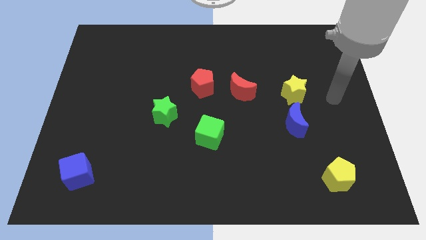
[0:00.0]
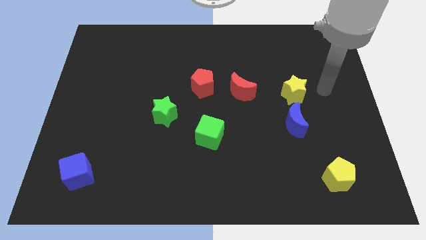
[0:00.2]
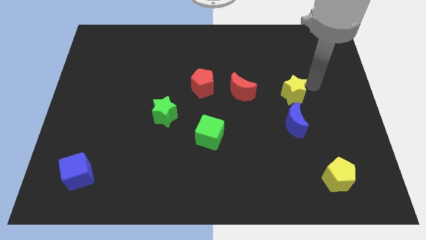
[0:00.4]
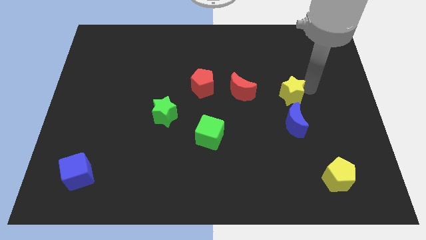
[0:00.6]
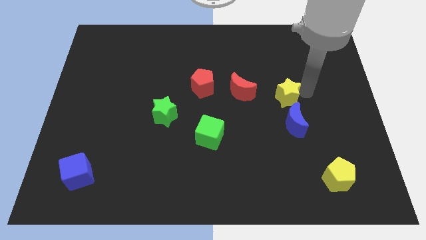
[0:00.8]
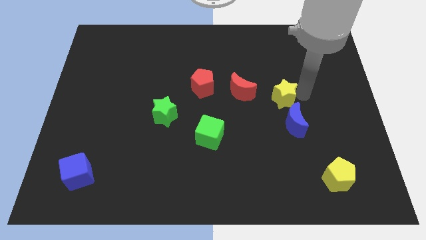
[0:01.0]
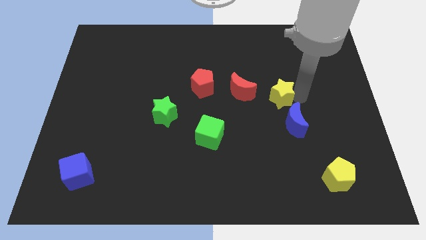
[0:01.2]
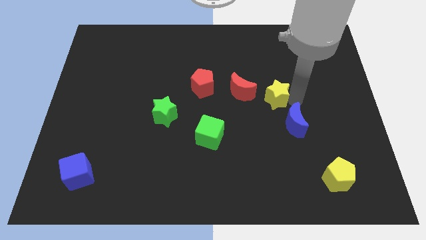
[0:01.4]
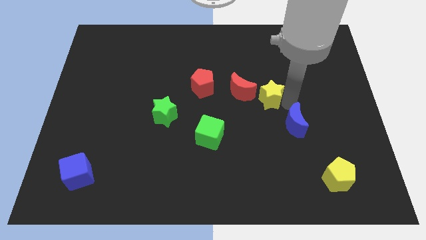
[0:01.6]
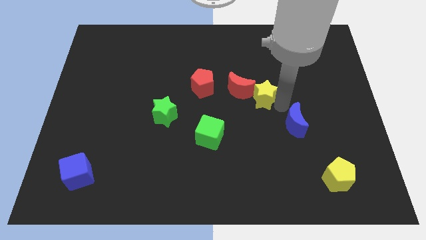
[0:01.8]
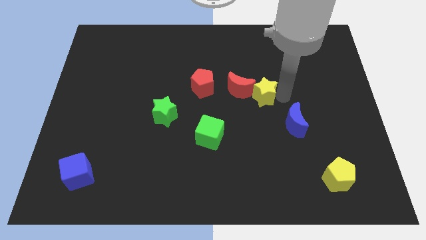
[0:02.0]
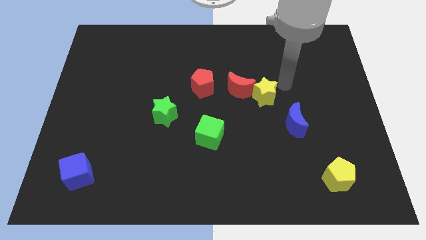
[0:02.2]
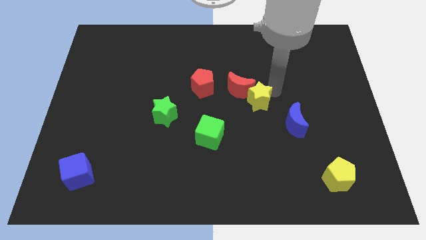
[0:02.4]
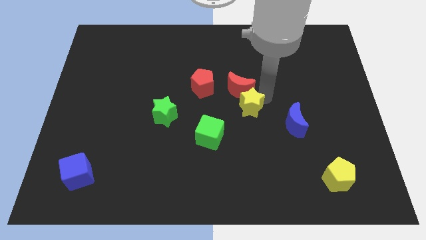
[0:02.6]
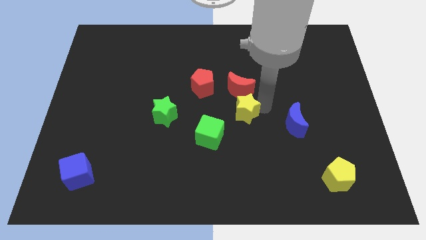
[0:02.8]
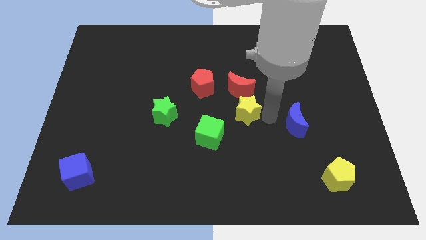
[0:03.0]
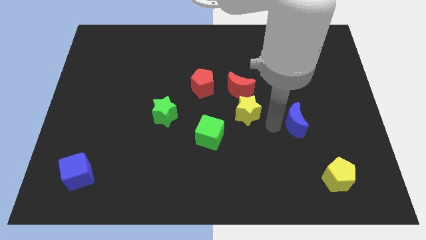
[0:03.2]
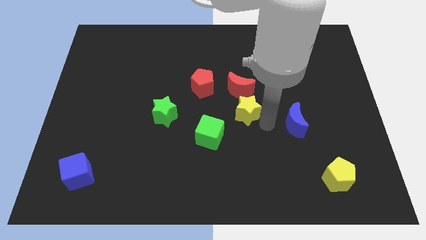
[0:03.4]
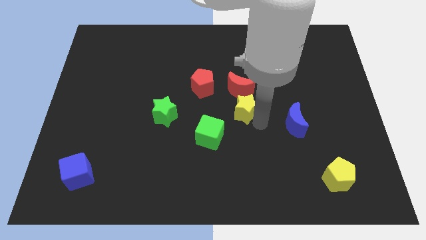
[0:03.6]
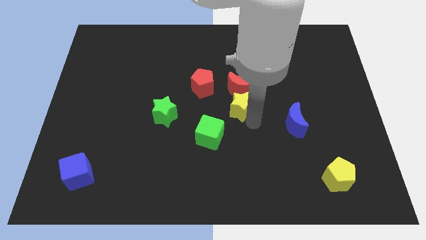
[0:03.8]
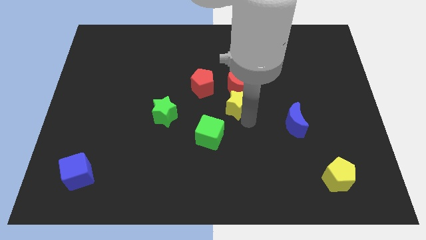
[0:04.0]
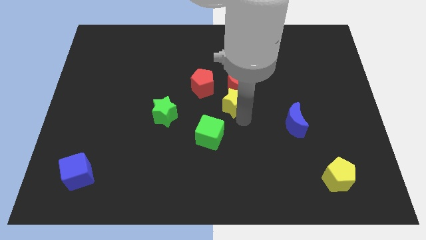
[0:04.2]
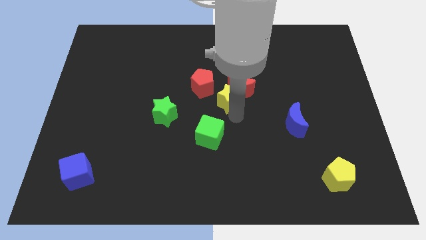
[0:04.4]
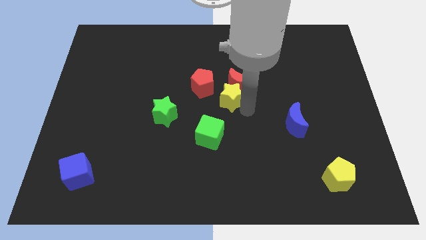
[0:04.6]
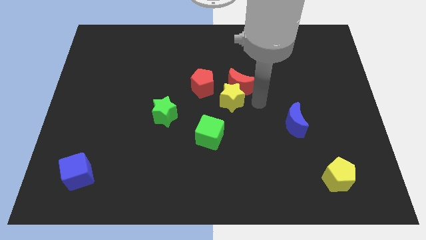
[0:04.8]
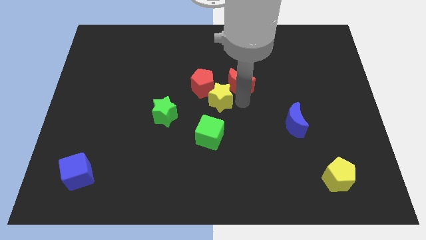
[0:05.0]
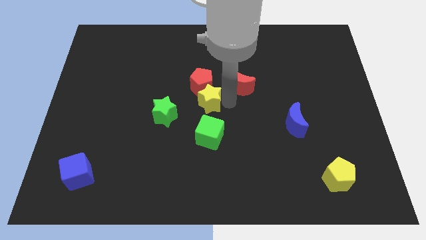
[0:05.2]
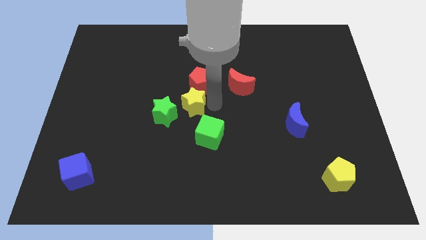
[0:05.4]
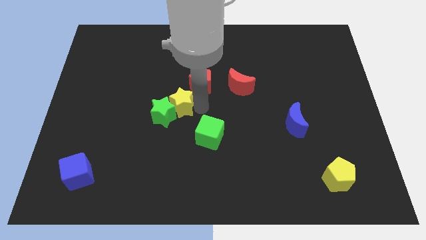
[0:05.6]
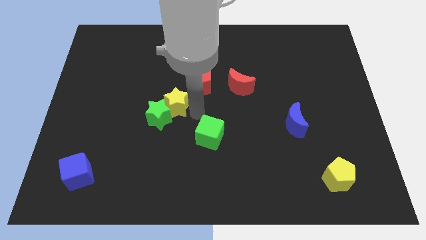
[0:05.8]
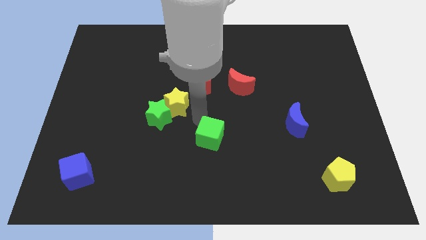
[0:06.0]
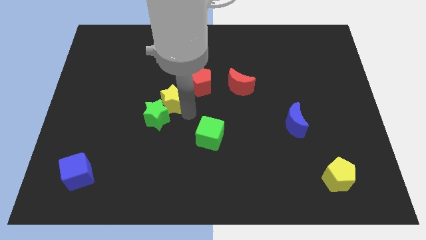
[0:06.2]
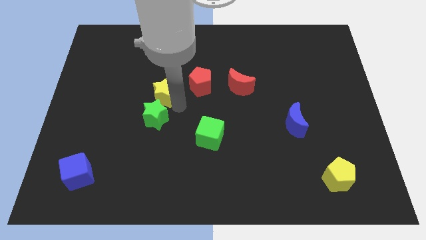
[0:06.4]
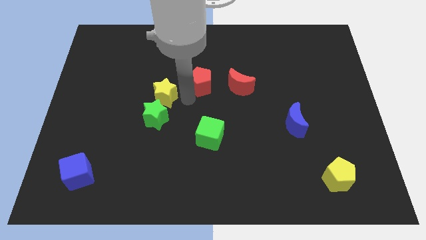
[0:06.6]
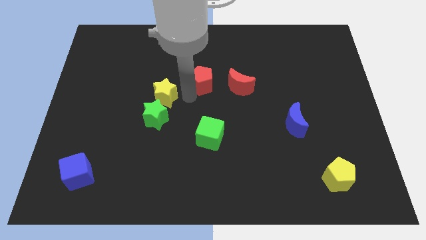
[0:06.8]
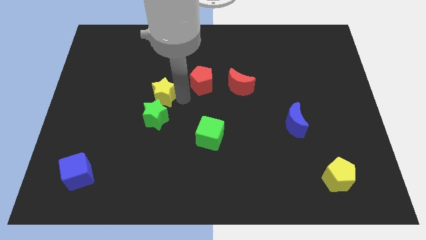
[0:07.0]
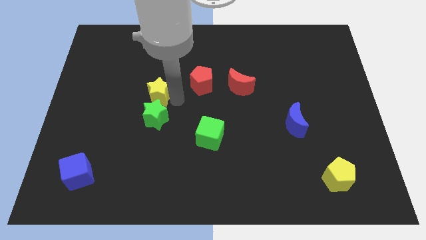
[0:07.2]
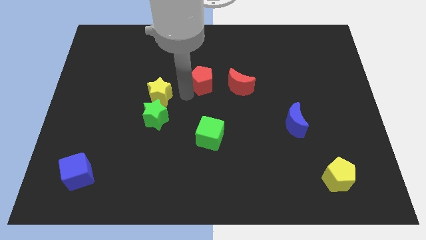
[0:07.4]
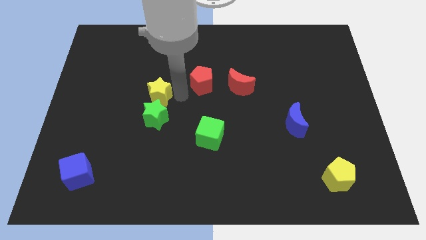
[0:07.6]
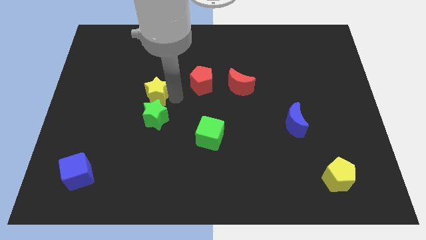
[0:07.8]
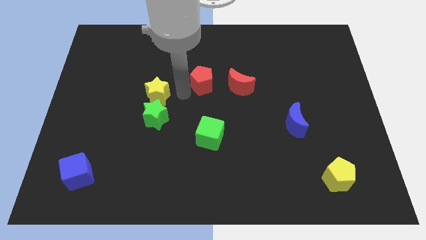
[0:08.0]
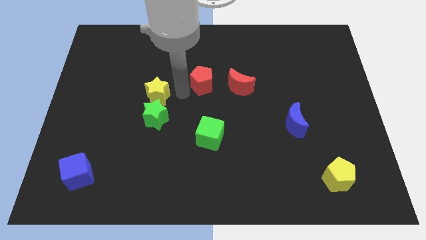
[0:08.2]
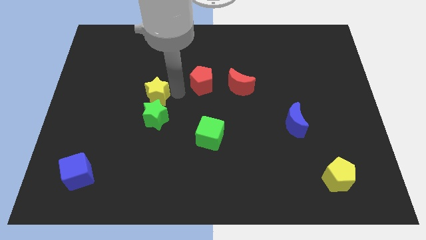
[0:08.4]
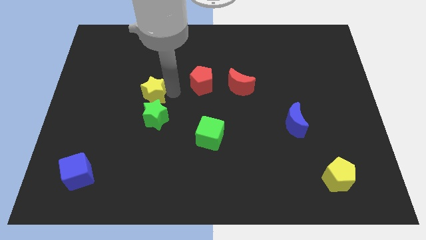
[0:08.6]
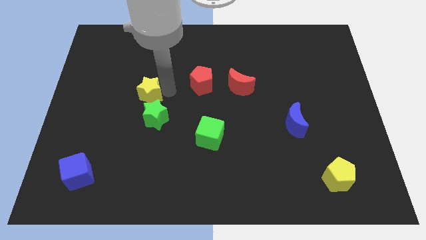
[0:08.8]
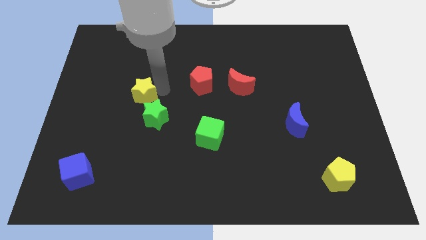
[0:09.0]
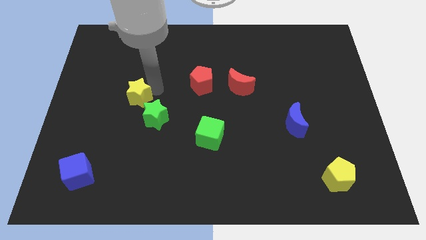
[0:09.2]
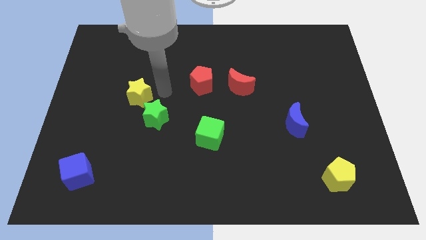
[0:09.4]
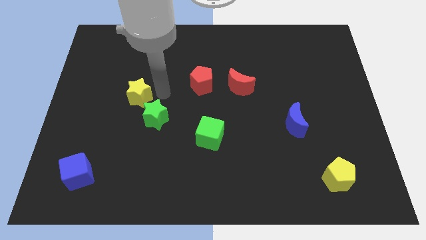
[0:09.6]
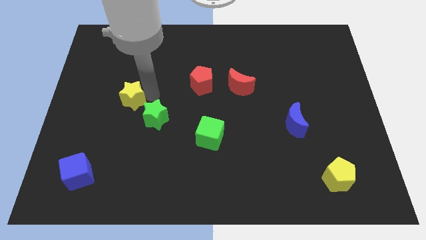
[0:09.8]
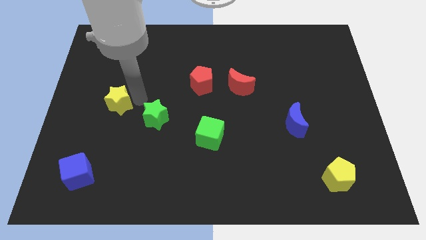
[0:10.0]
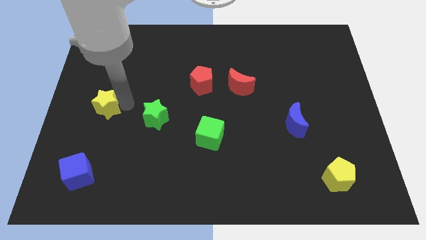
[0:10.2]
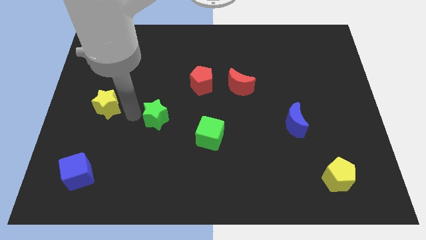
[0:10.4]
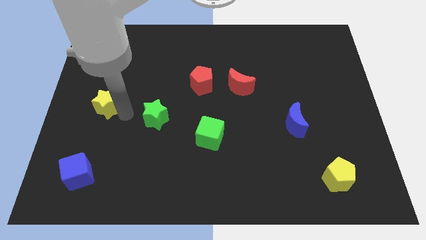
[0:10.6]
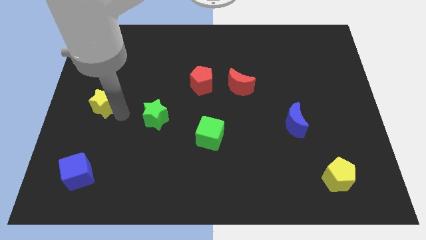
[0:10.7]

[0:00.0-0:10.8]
put the yellow star to the left side

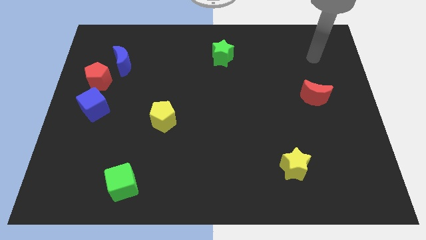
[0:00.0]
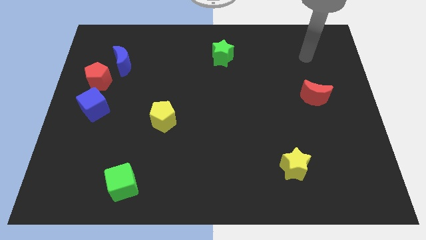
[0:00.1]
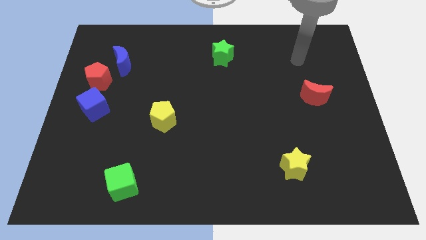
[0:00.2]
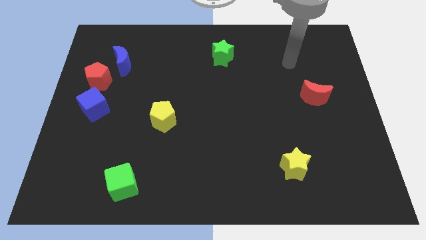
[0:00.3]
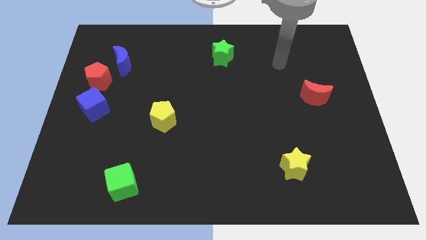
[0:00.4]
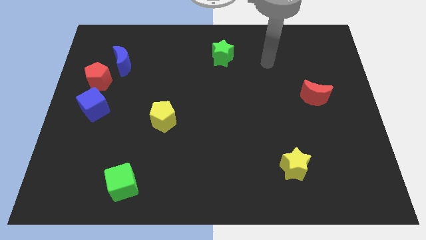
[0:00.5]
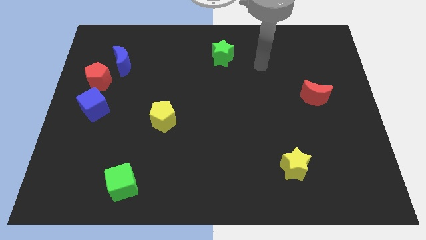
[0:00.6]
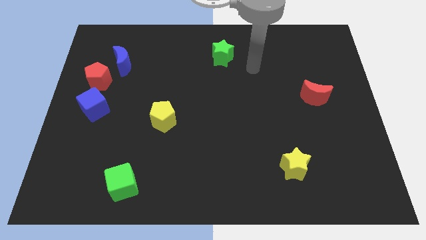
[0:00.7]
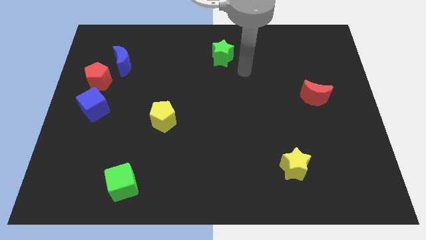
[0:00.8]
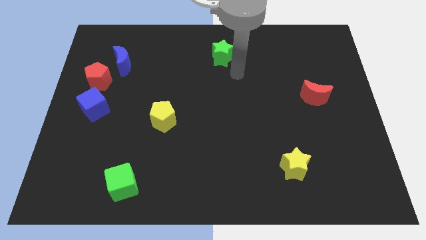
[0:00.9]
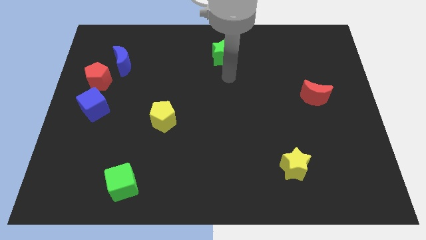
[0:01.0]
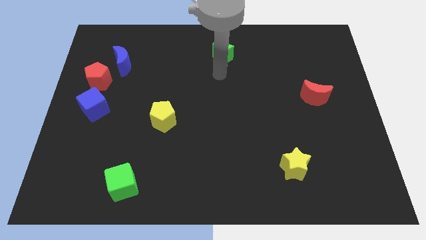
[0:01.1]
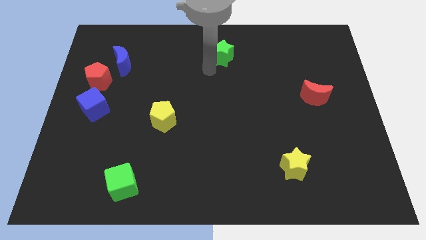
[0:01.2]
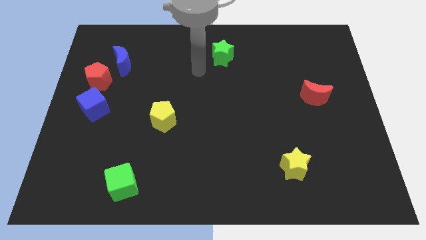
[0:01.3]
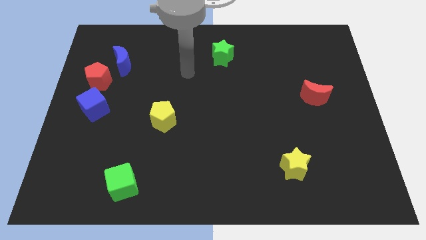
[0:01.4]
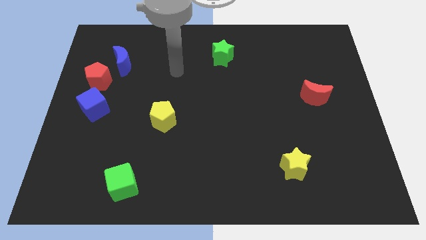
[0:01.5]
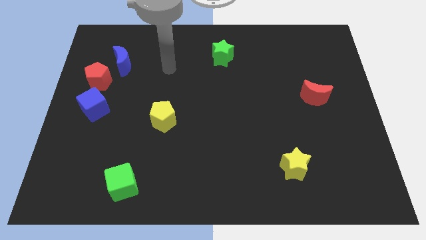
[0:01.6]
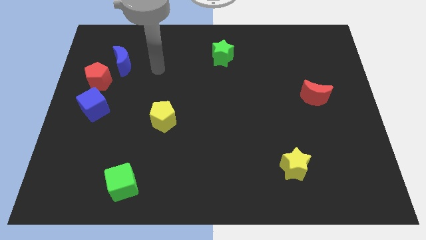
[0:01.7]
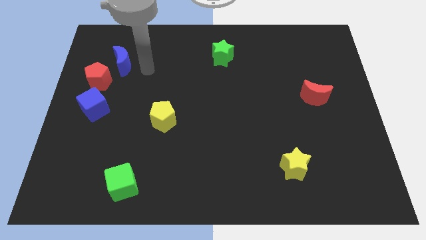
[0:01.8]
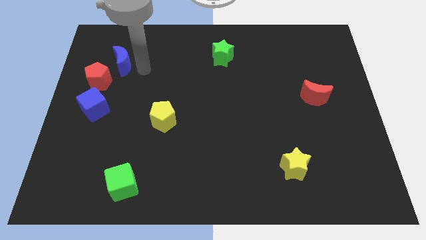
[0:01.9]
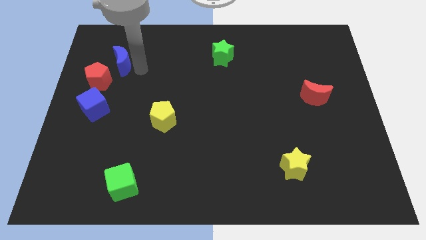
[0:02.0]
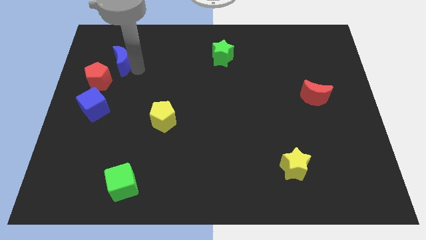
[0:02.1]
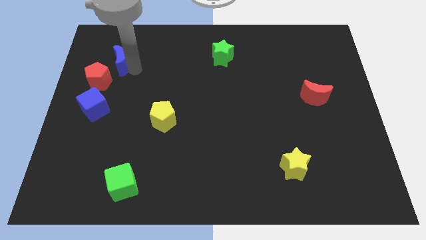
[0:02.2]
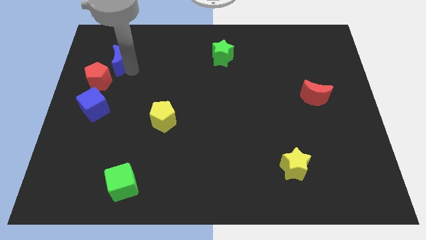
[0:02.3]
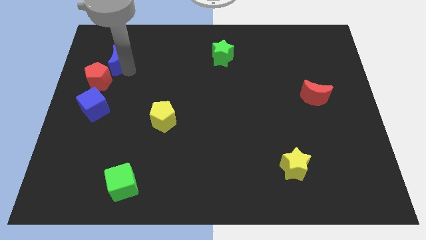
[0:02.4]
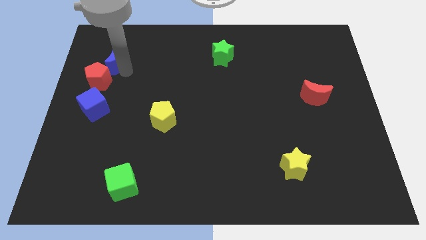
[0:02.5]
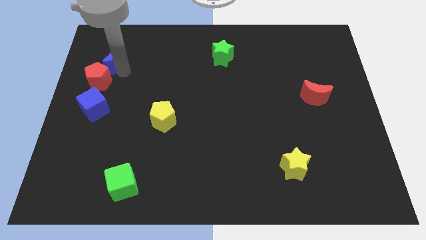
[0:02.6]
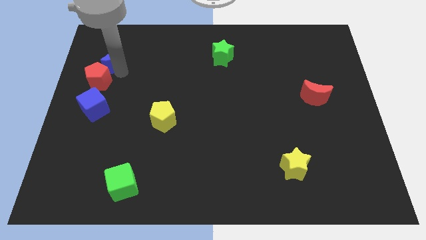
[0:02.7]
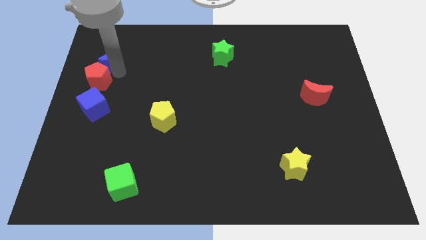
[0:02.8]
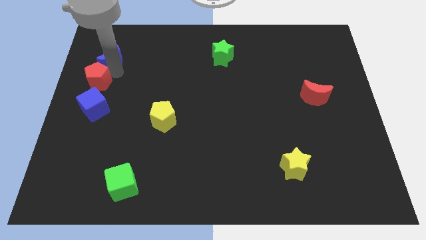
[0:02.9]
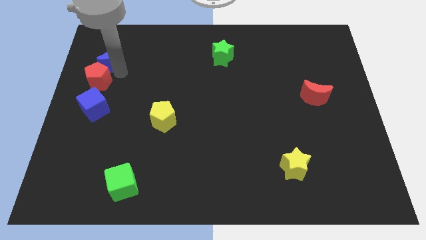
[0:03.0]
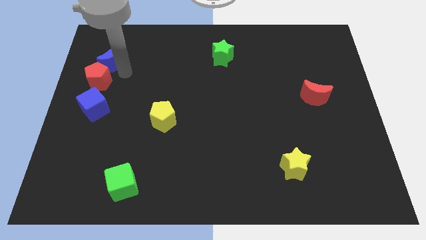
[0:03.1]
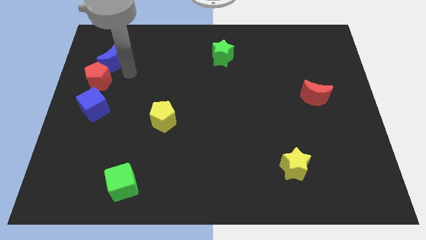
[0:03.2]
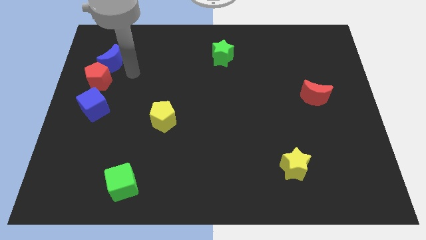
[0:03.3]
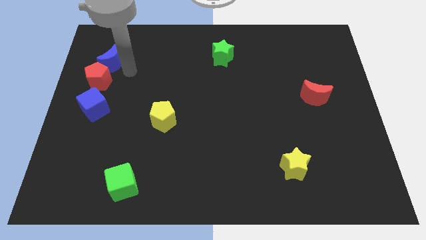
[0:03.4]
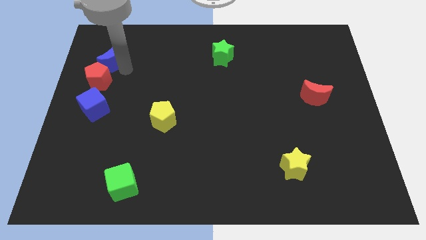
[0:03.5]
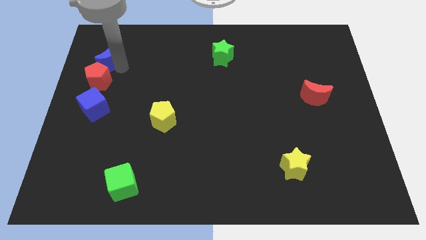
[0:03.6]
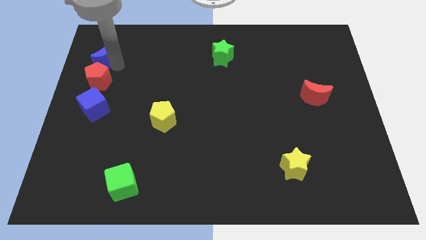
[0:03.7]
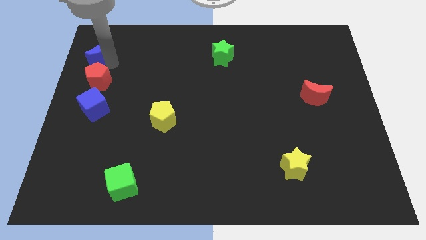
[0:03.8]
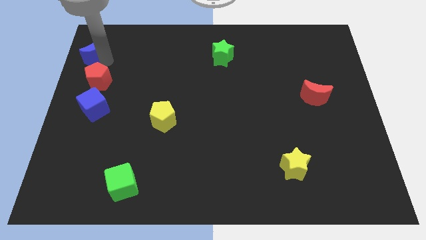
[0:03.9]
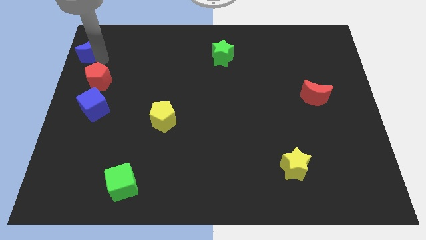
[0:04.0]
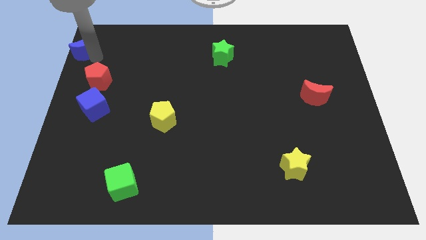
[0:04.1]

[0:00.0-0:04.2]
move the blue moon to the top left
